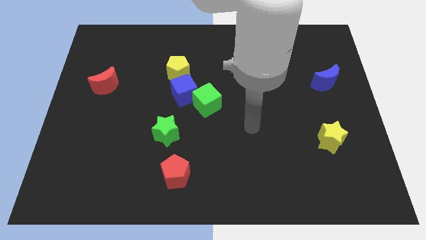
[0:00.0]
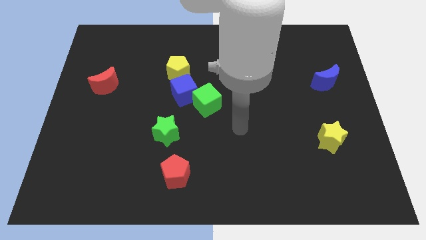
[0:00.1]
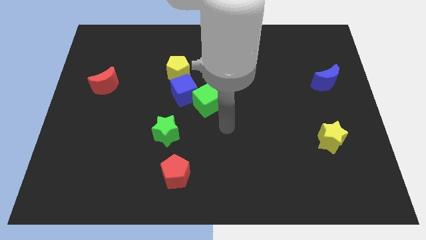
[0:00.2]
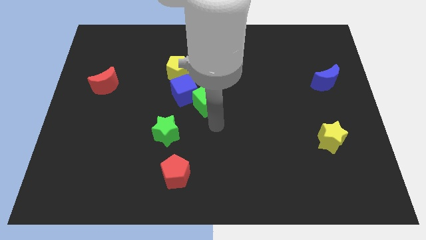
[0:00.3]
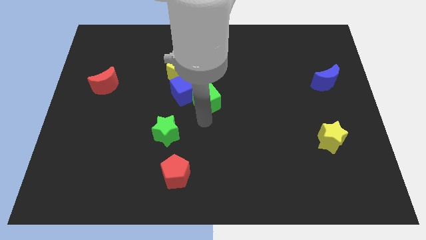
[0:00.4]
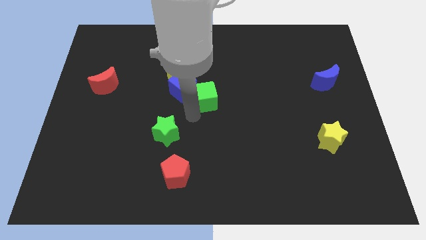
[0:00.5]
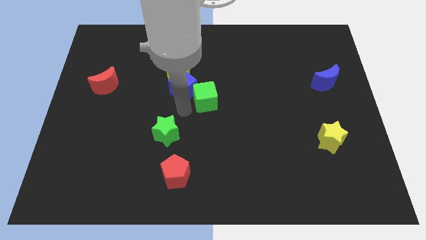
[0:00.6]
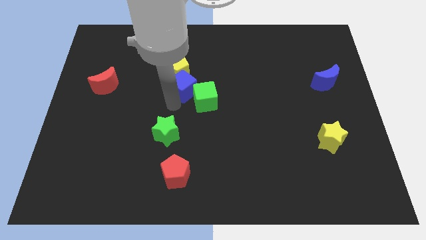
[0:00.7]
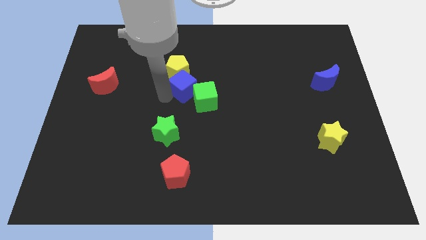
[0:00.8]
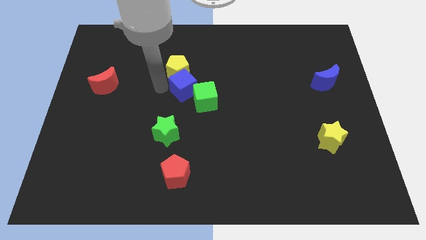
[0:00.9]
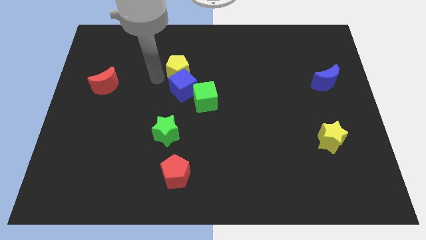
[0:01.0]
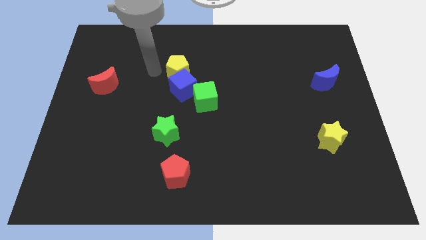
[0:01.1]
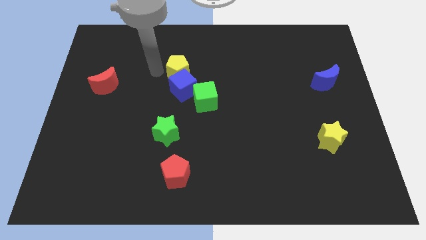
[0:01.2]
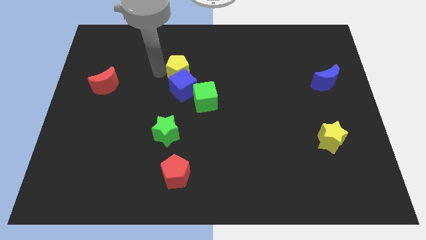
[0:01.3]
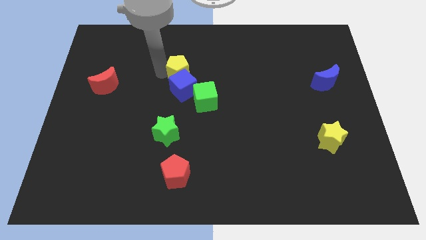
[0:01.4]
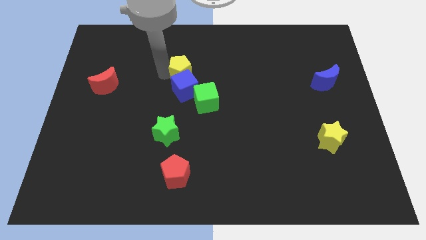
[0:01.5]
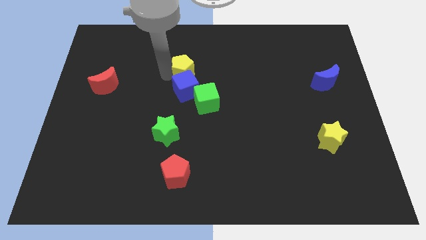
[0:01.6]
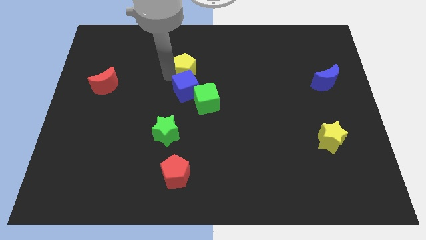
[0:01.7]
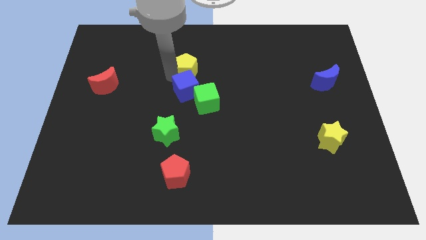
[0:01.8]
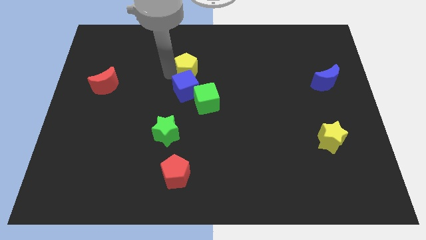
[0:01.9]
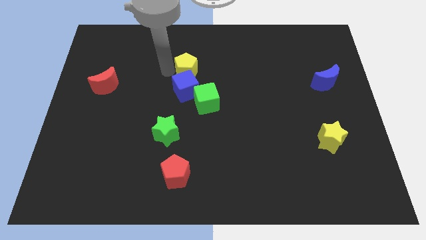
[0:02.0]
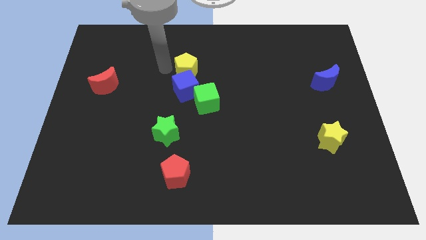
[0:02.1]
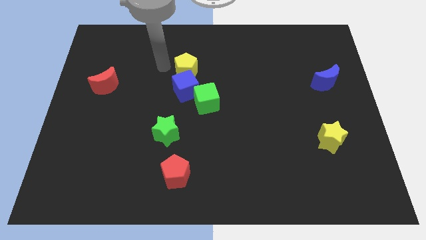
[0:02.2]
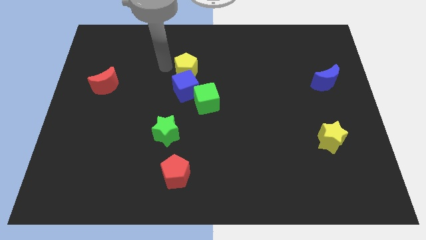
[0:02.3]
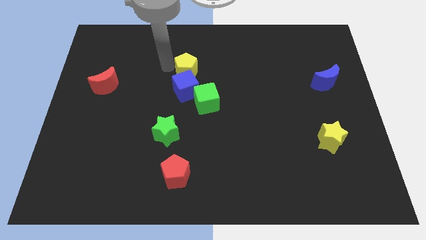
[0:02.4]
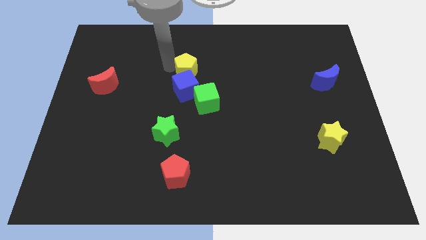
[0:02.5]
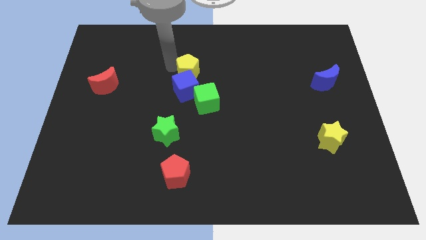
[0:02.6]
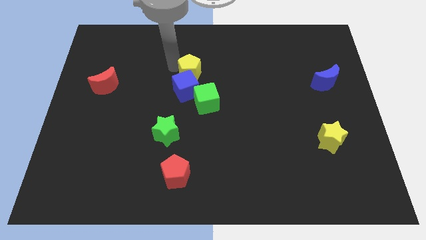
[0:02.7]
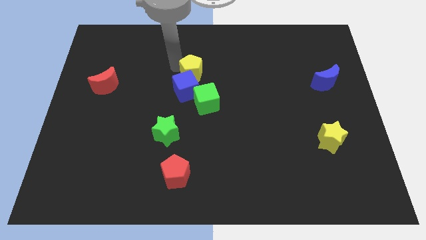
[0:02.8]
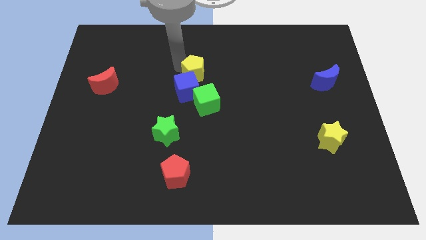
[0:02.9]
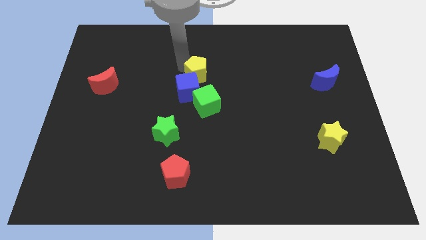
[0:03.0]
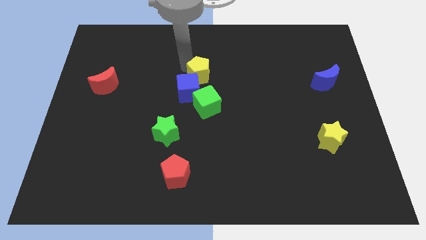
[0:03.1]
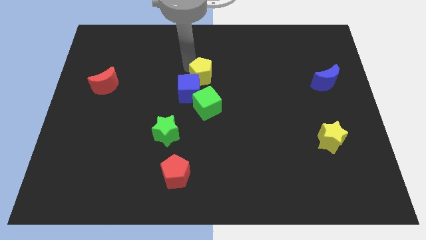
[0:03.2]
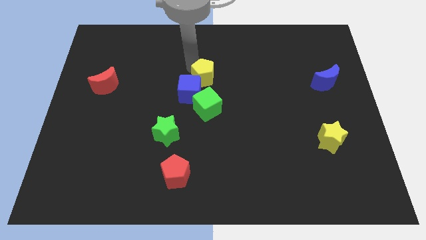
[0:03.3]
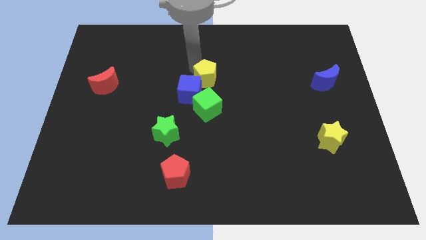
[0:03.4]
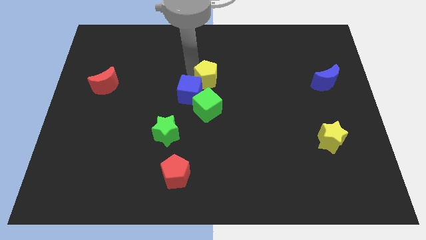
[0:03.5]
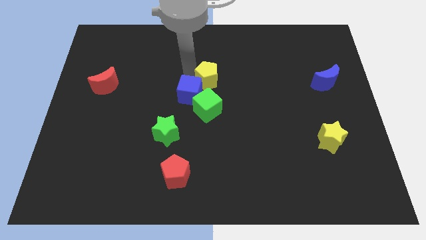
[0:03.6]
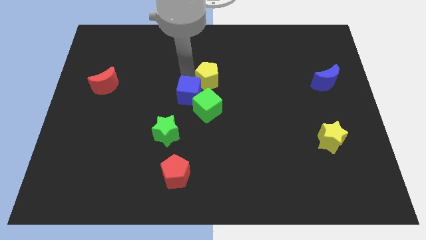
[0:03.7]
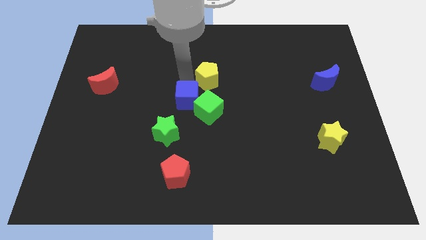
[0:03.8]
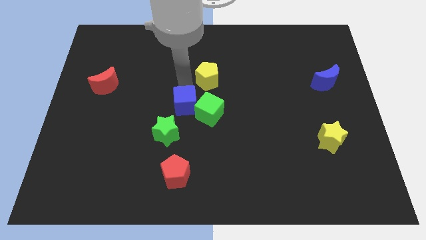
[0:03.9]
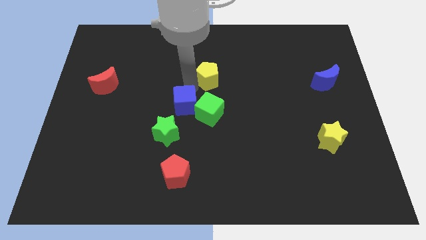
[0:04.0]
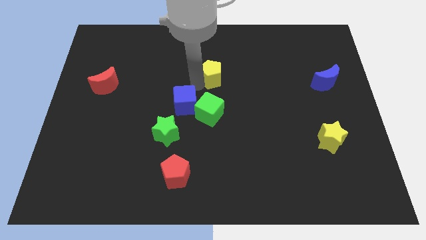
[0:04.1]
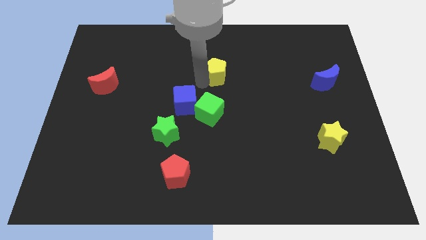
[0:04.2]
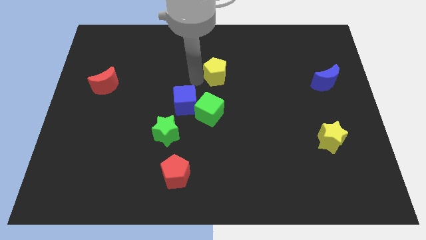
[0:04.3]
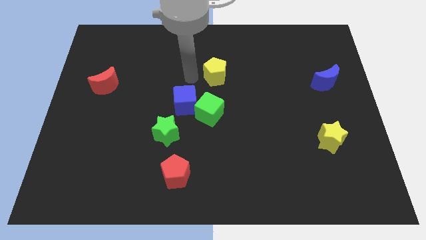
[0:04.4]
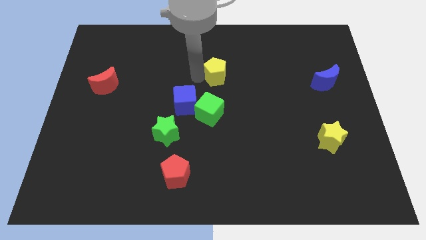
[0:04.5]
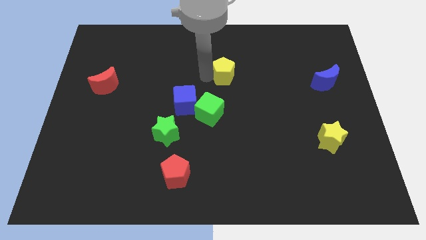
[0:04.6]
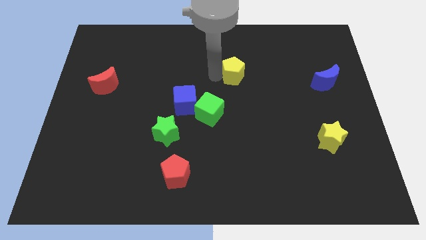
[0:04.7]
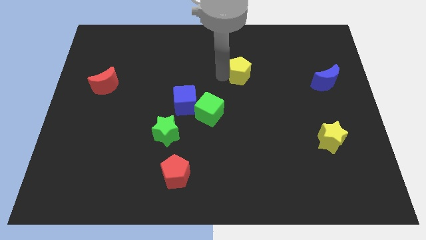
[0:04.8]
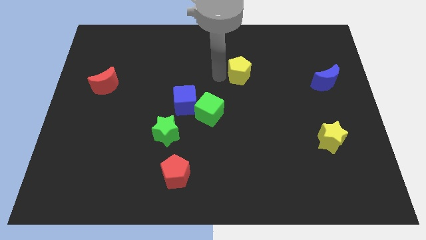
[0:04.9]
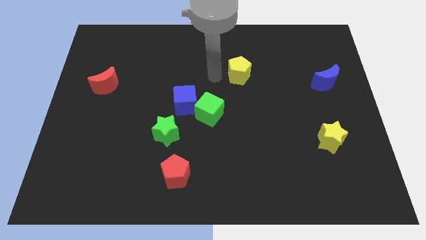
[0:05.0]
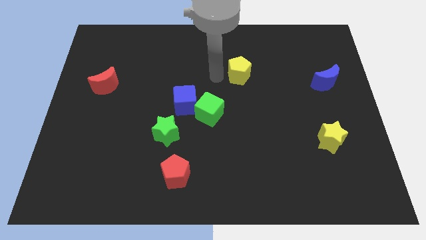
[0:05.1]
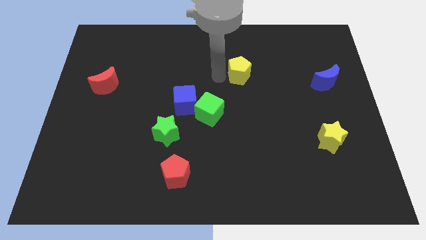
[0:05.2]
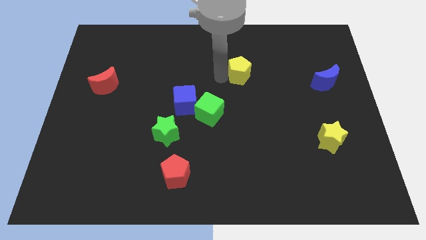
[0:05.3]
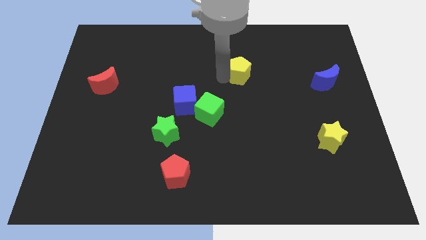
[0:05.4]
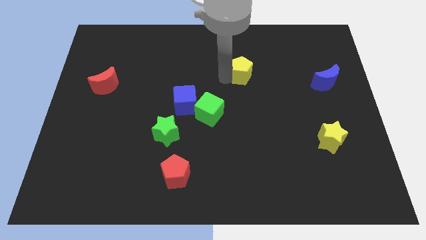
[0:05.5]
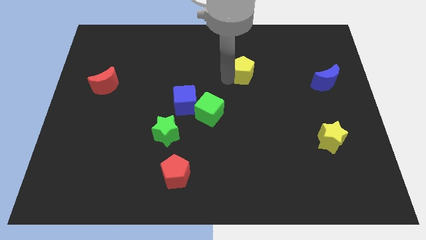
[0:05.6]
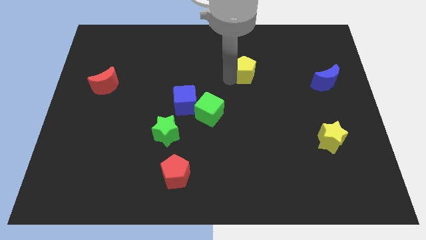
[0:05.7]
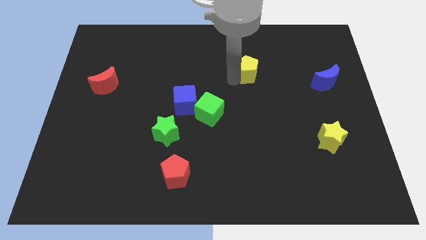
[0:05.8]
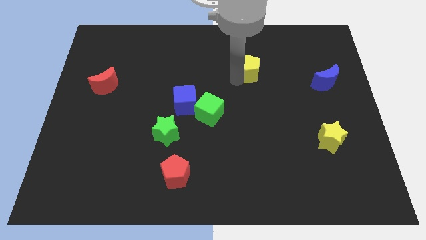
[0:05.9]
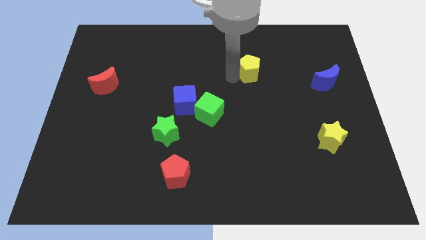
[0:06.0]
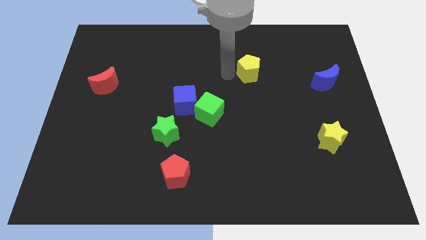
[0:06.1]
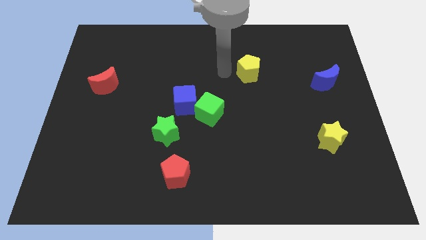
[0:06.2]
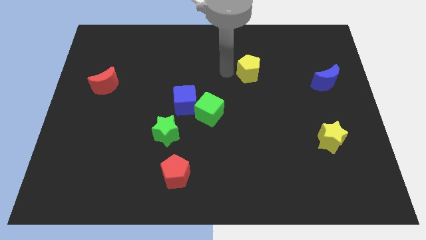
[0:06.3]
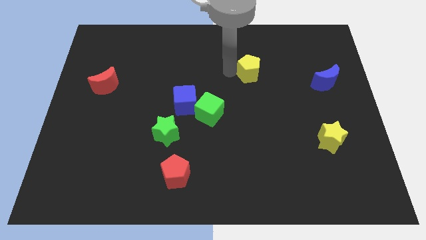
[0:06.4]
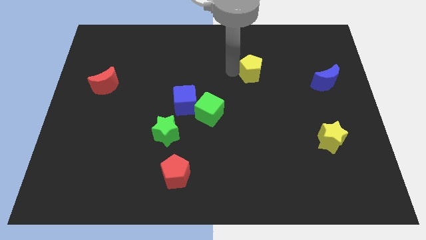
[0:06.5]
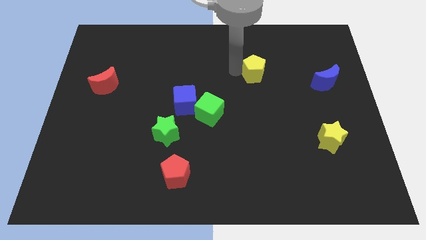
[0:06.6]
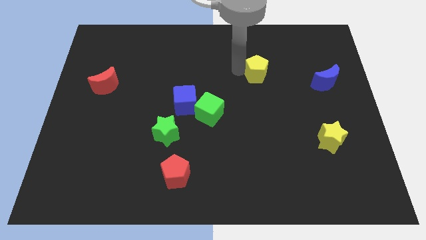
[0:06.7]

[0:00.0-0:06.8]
push the yellow pentagon to the right

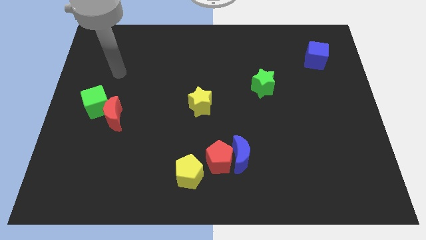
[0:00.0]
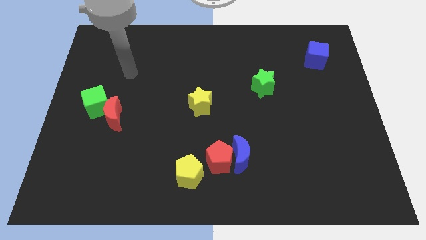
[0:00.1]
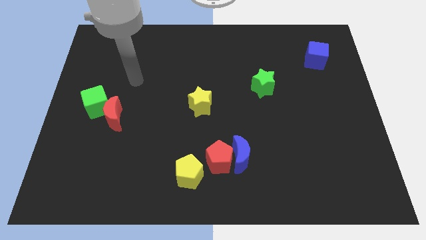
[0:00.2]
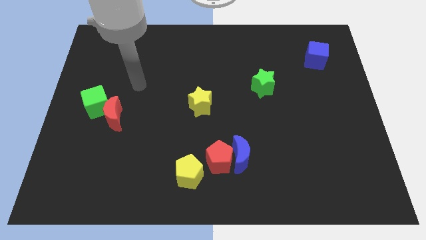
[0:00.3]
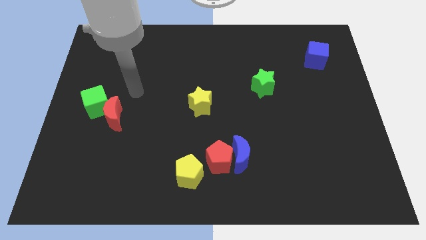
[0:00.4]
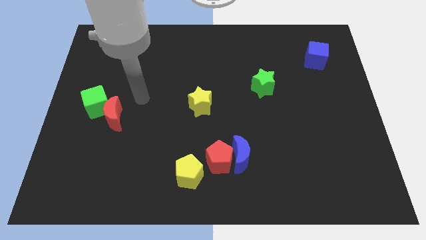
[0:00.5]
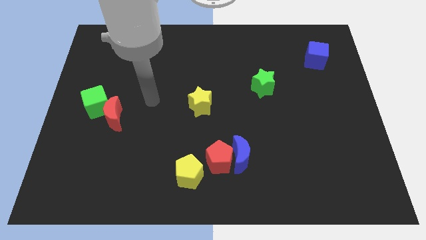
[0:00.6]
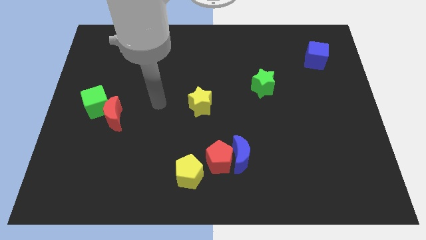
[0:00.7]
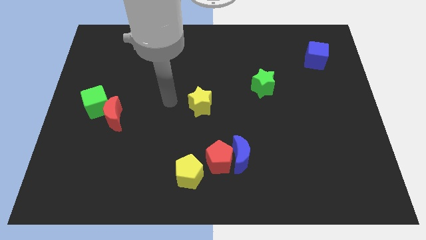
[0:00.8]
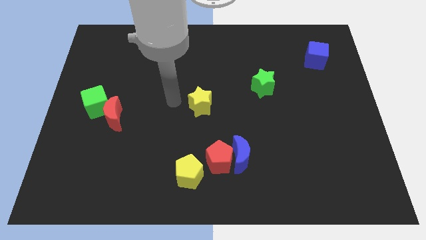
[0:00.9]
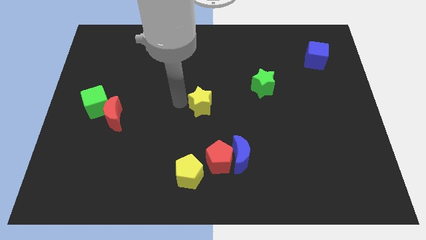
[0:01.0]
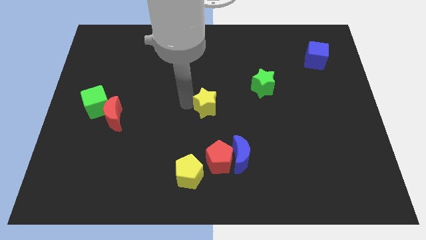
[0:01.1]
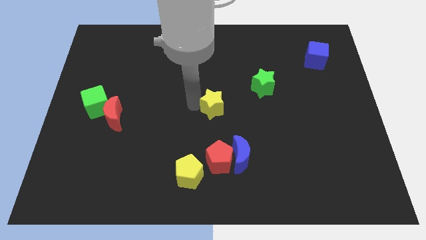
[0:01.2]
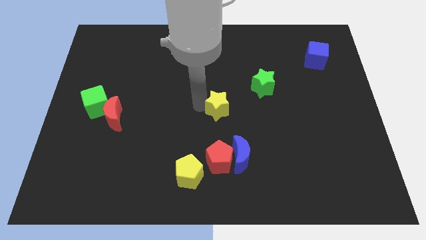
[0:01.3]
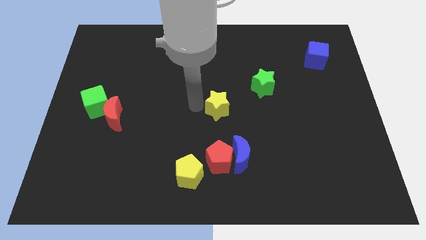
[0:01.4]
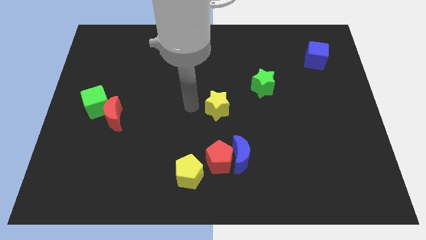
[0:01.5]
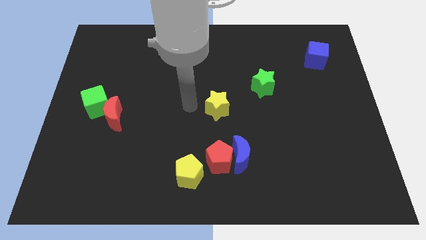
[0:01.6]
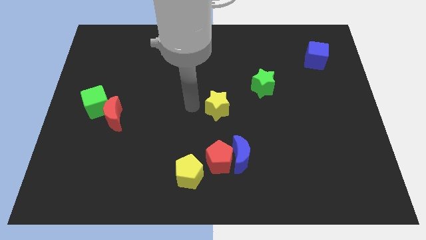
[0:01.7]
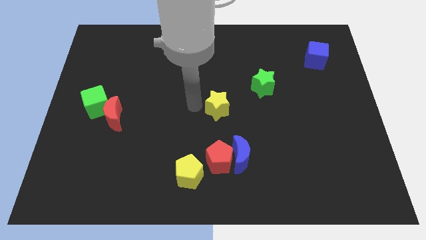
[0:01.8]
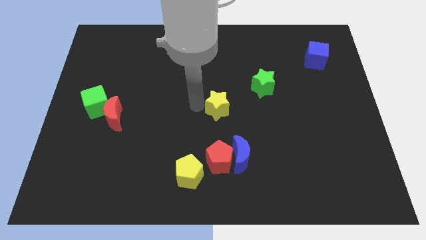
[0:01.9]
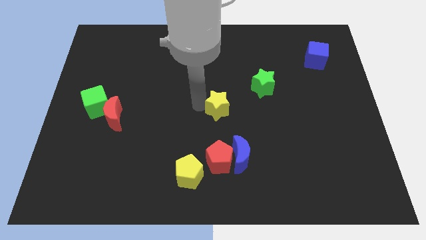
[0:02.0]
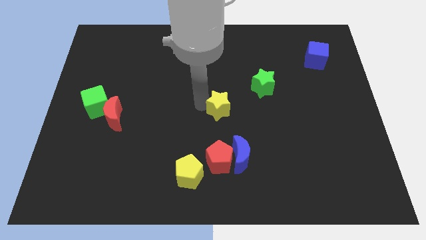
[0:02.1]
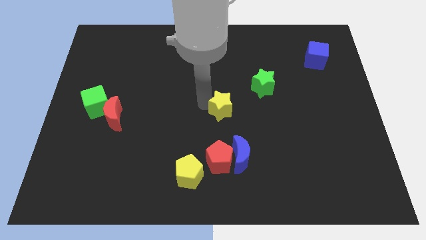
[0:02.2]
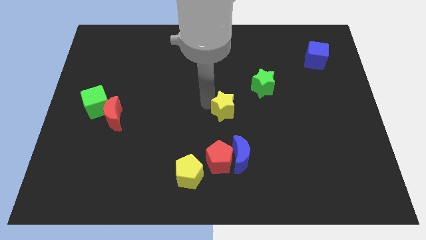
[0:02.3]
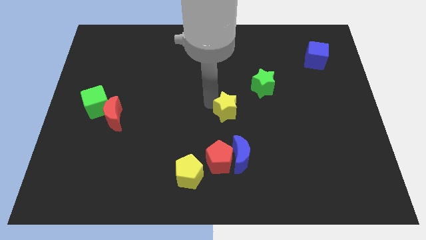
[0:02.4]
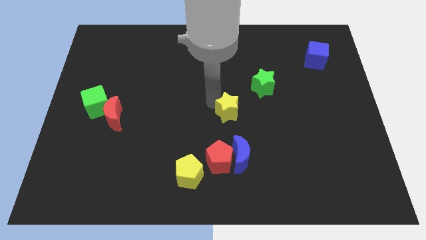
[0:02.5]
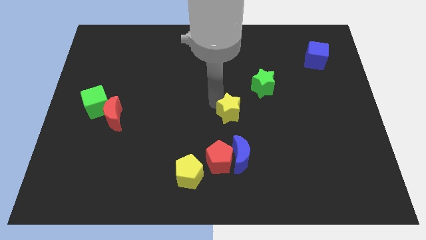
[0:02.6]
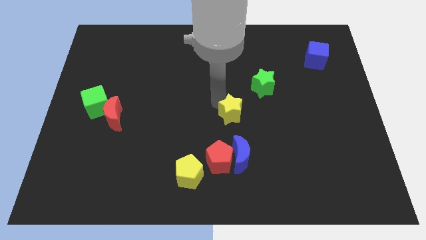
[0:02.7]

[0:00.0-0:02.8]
move the yellow star somewhat to the right
